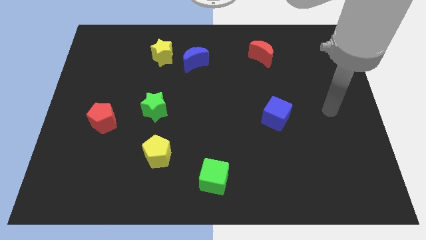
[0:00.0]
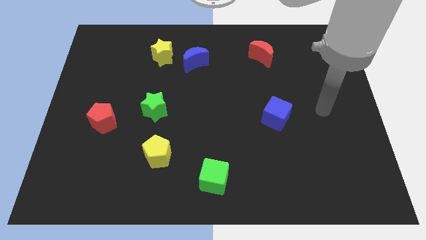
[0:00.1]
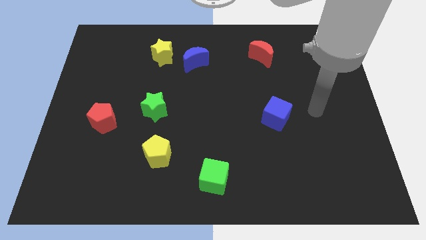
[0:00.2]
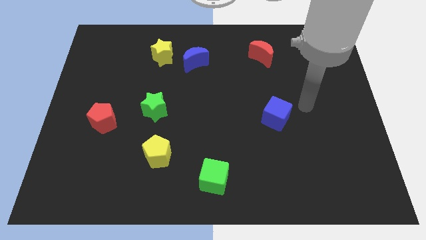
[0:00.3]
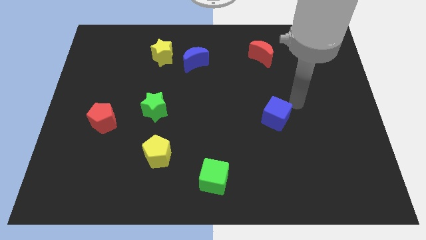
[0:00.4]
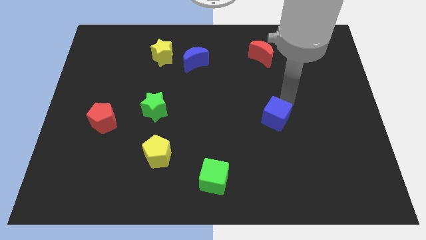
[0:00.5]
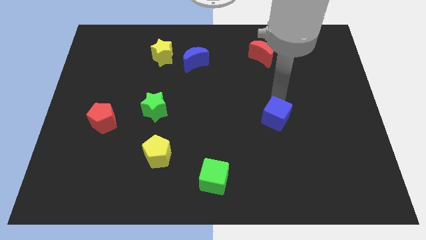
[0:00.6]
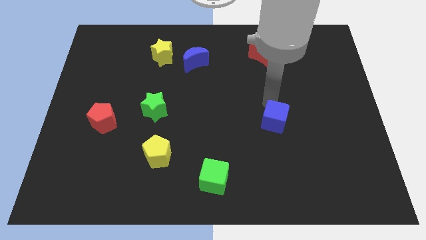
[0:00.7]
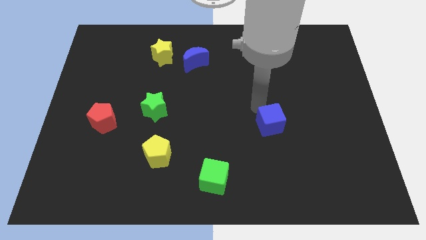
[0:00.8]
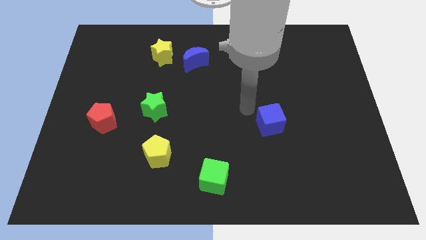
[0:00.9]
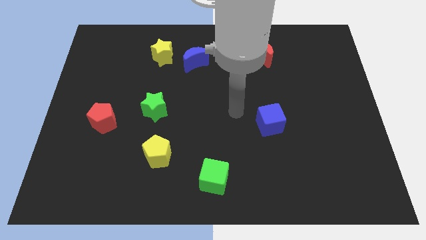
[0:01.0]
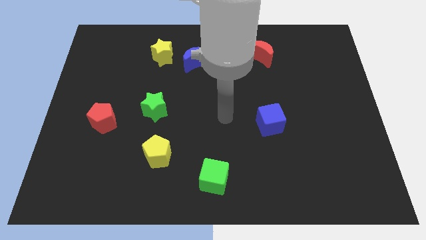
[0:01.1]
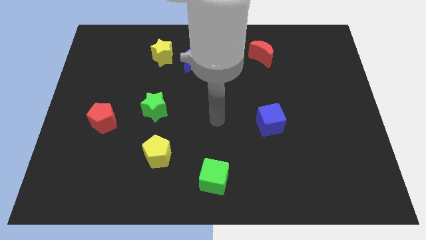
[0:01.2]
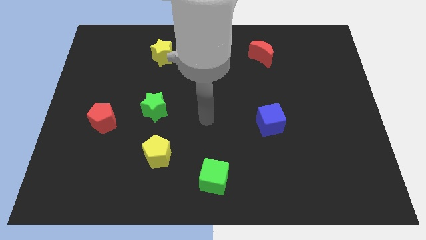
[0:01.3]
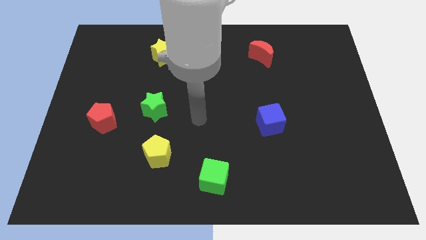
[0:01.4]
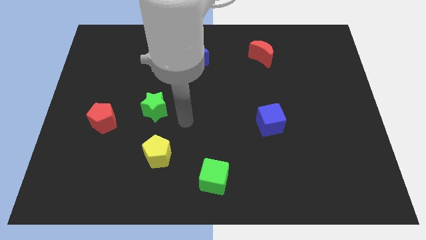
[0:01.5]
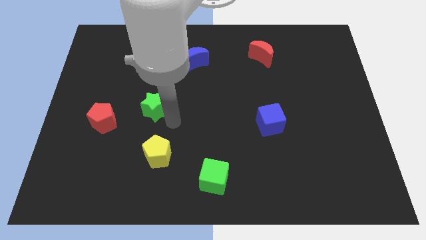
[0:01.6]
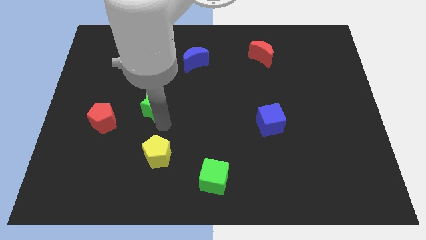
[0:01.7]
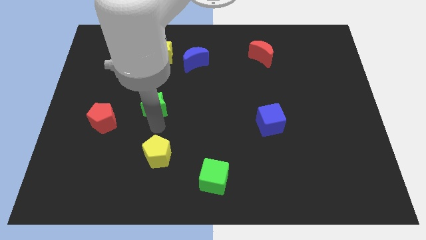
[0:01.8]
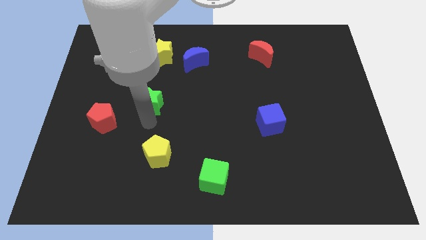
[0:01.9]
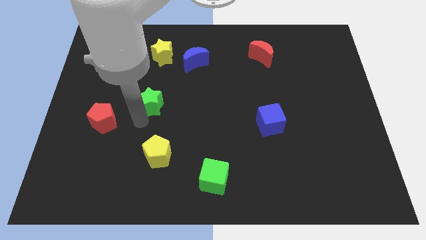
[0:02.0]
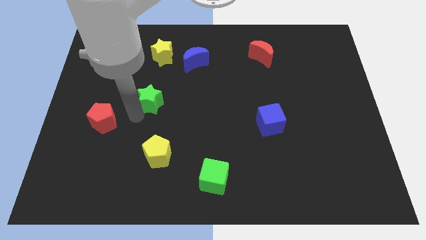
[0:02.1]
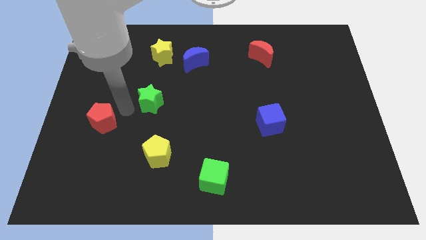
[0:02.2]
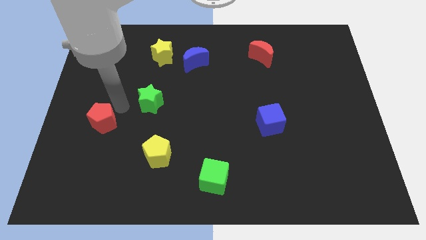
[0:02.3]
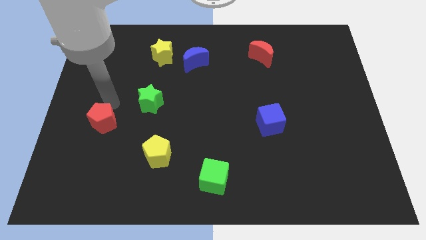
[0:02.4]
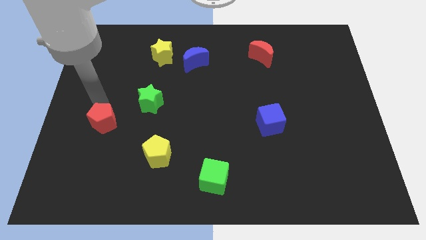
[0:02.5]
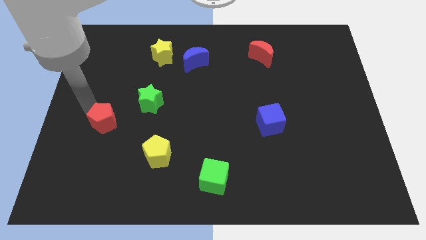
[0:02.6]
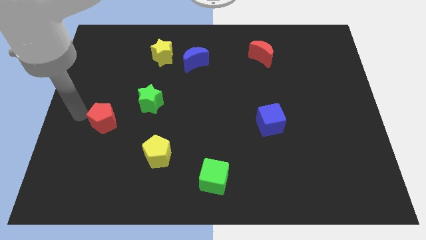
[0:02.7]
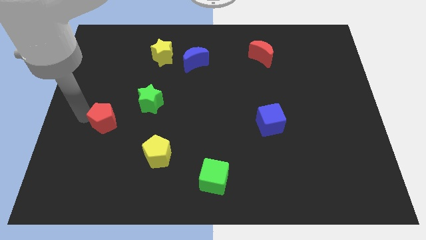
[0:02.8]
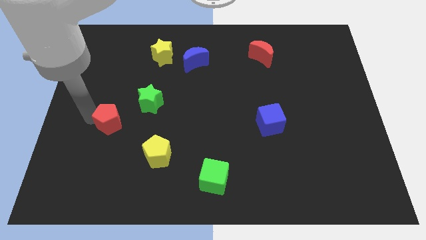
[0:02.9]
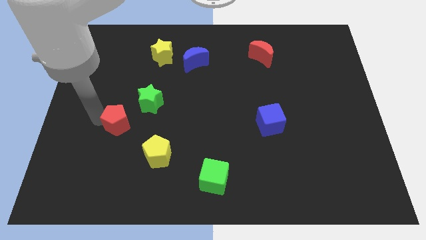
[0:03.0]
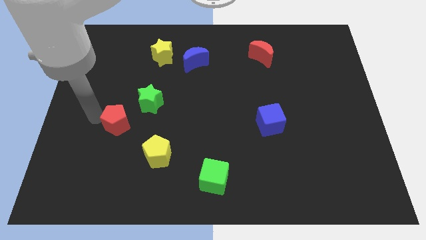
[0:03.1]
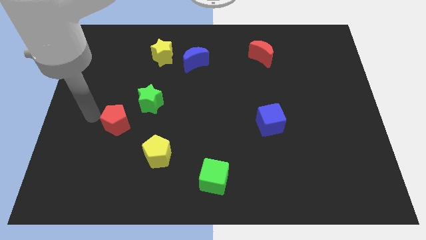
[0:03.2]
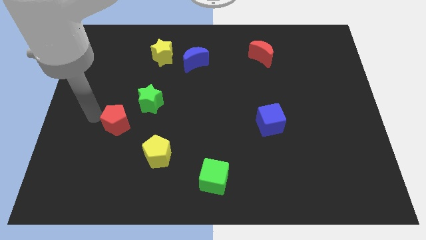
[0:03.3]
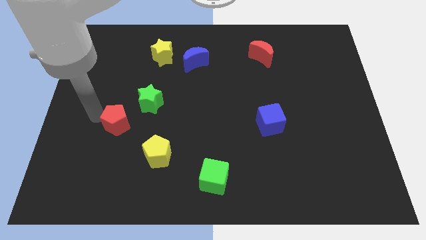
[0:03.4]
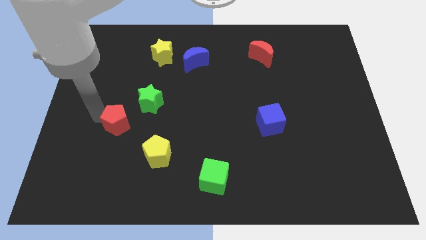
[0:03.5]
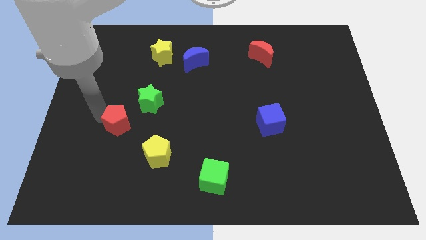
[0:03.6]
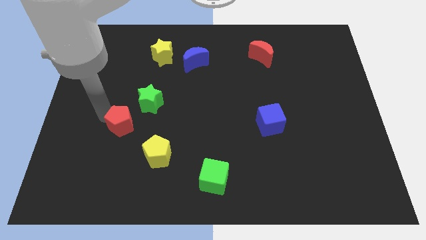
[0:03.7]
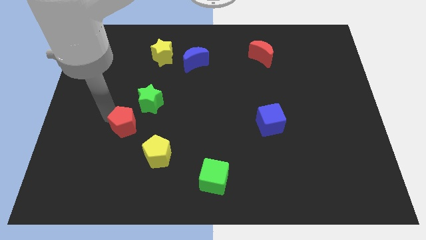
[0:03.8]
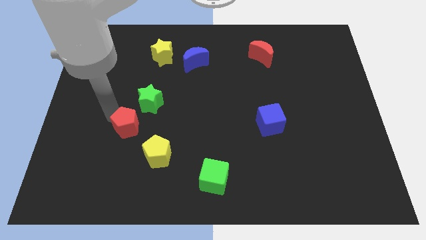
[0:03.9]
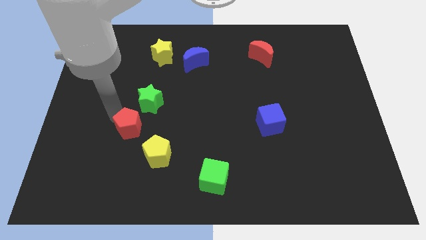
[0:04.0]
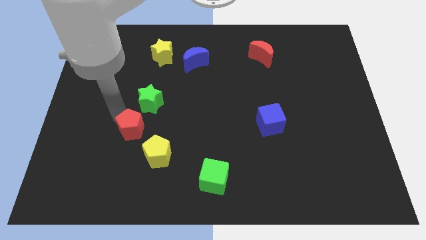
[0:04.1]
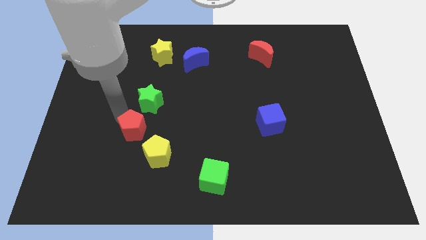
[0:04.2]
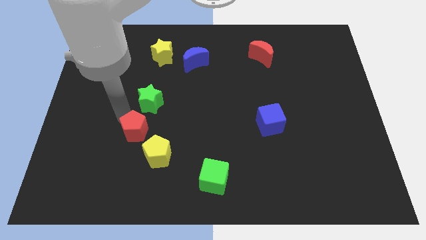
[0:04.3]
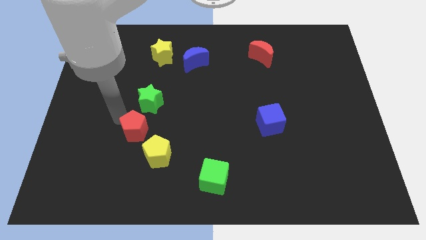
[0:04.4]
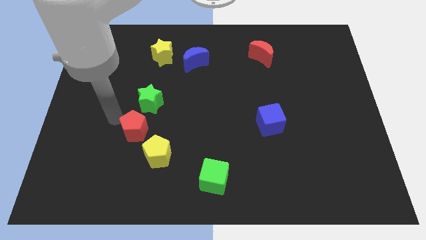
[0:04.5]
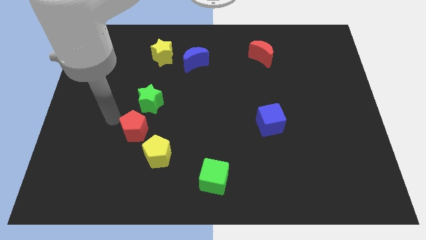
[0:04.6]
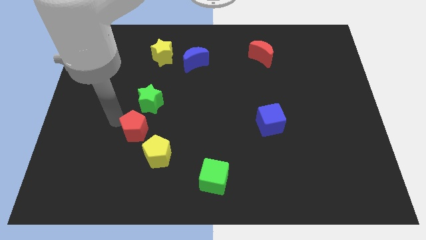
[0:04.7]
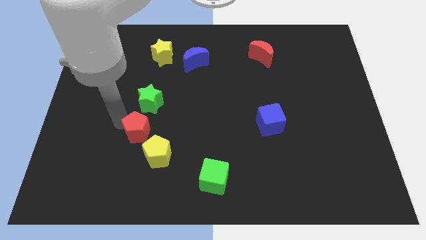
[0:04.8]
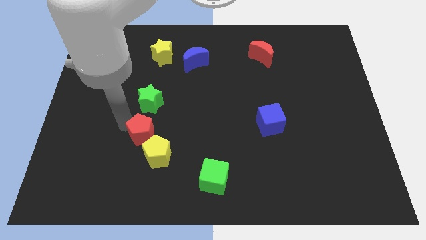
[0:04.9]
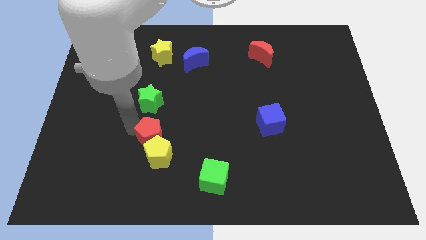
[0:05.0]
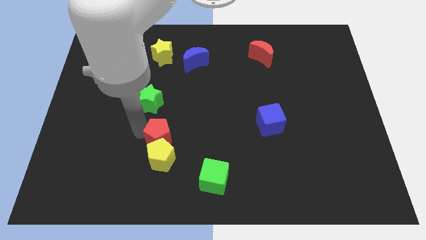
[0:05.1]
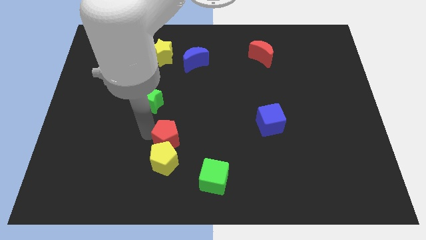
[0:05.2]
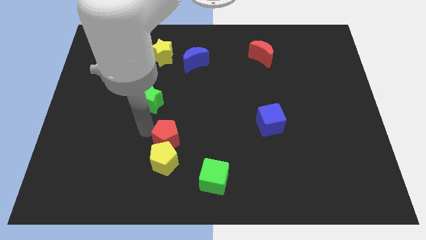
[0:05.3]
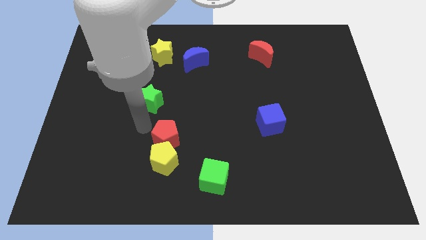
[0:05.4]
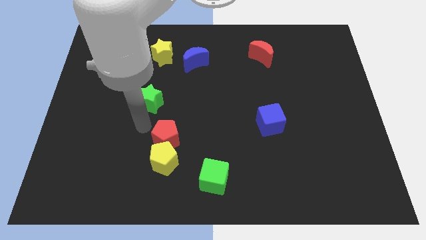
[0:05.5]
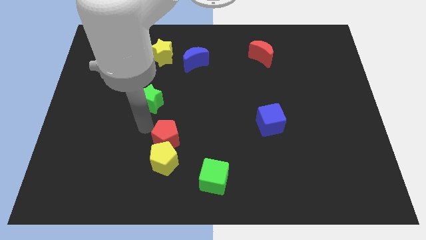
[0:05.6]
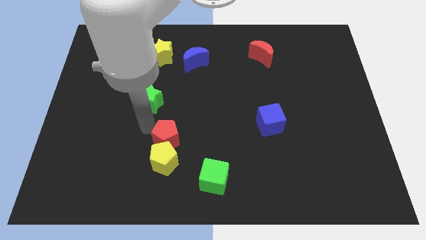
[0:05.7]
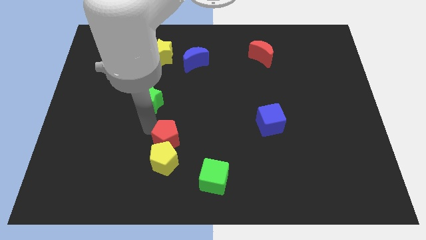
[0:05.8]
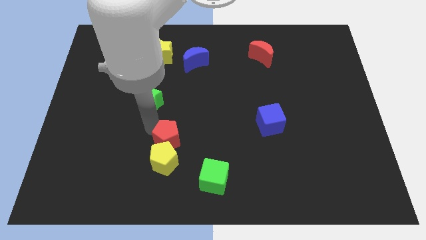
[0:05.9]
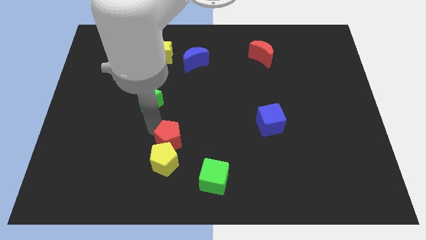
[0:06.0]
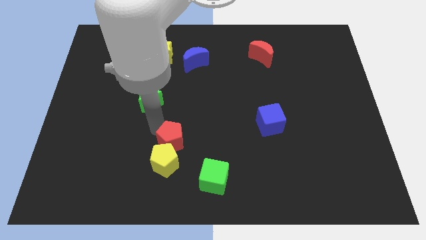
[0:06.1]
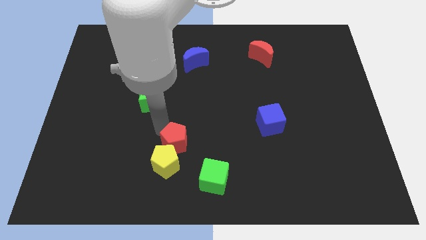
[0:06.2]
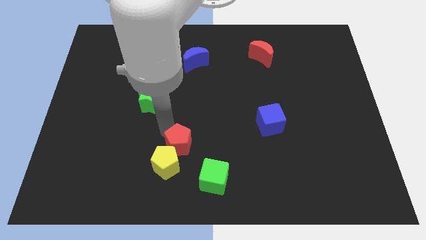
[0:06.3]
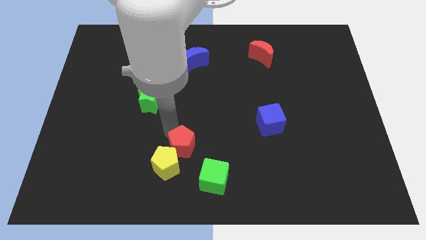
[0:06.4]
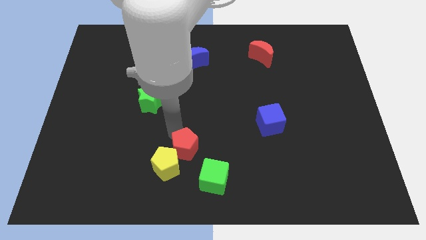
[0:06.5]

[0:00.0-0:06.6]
slide the red pentagon to the right of the yellow pentagon

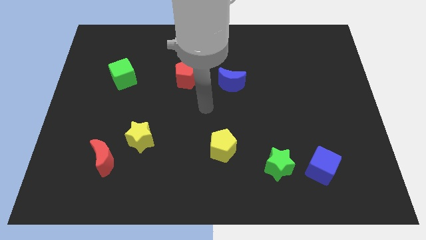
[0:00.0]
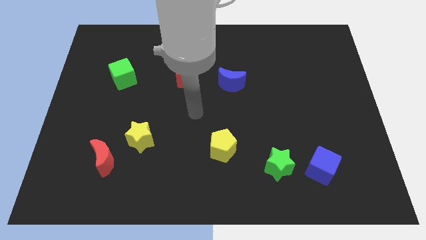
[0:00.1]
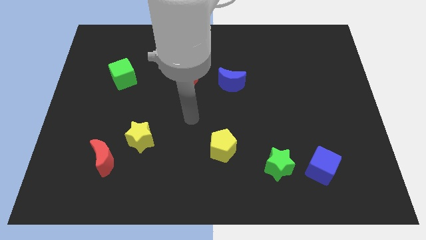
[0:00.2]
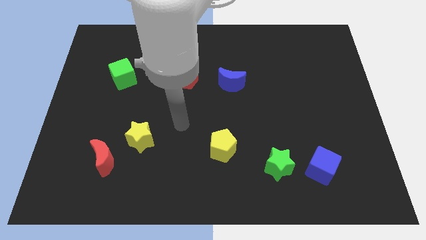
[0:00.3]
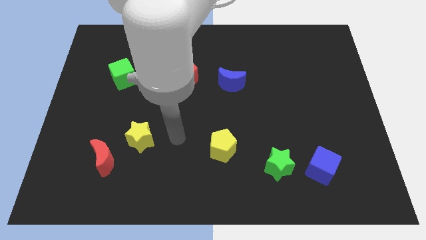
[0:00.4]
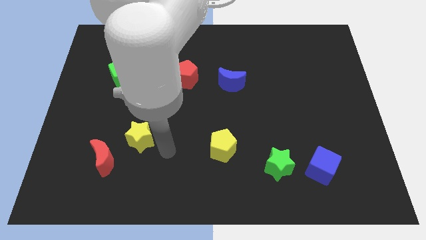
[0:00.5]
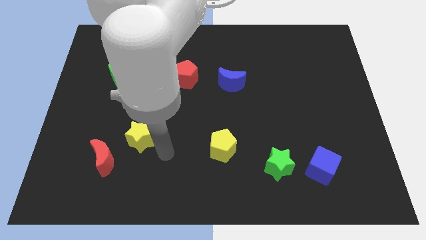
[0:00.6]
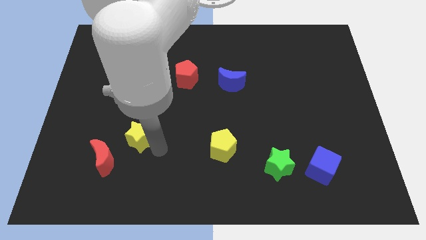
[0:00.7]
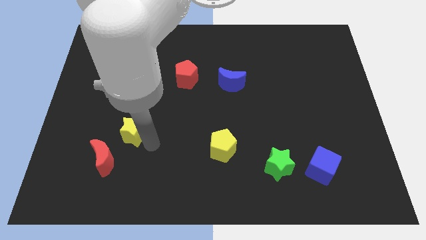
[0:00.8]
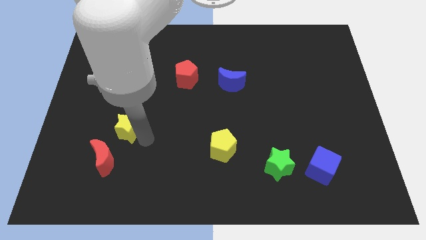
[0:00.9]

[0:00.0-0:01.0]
move the yellow star to the top side of the red moon

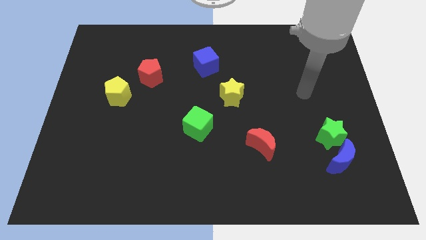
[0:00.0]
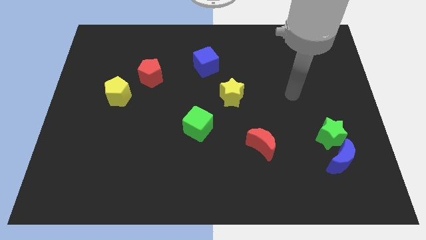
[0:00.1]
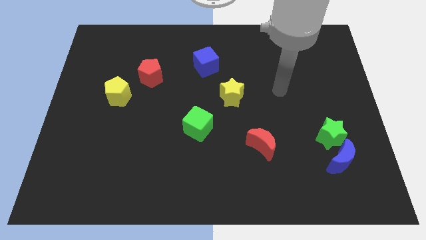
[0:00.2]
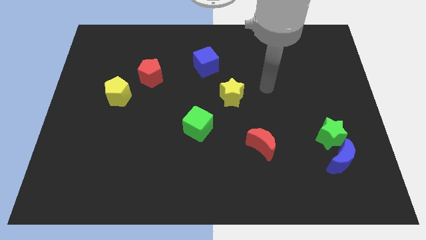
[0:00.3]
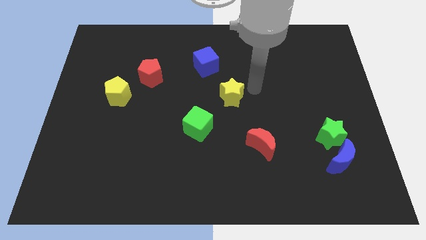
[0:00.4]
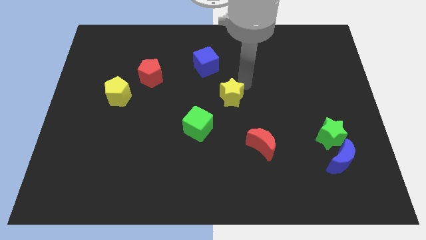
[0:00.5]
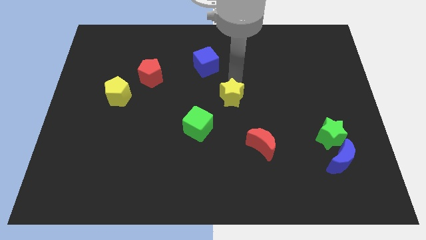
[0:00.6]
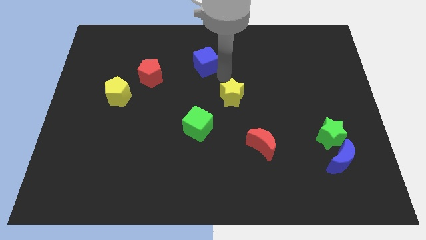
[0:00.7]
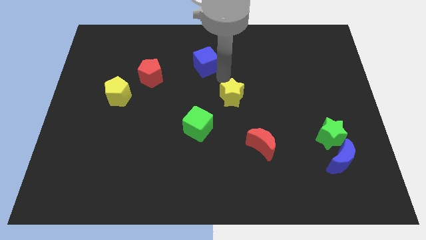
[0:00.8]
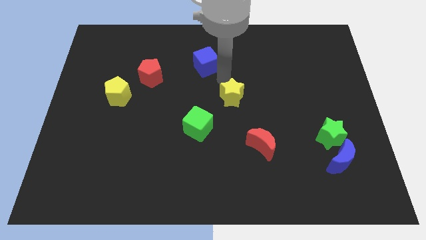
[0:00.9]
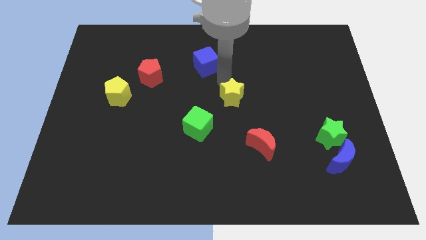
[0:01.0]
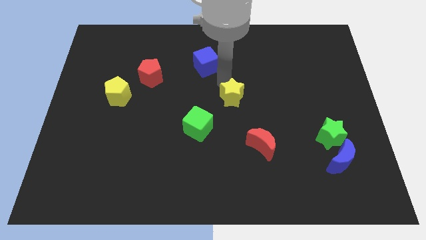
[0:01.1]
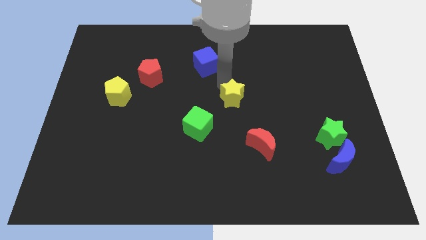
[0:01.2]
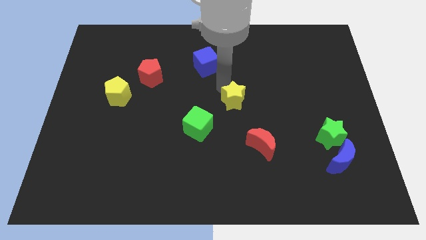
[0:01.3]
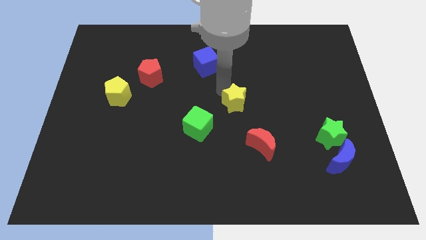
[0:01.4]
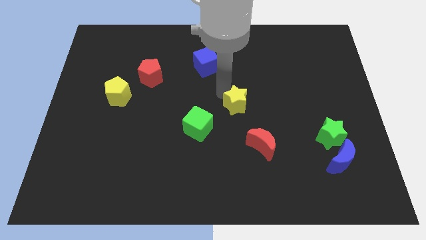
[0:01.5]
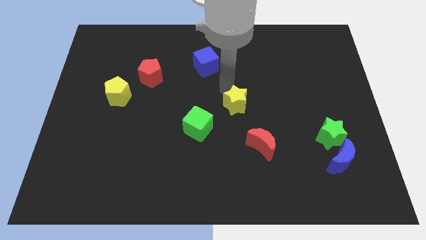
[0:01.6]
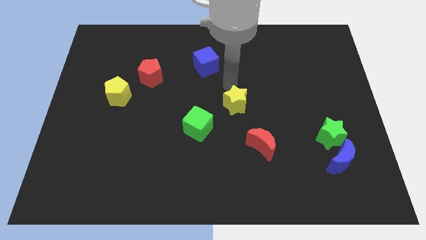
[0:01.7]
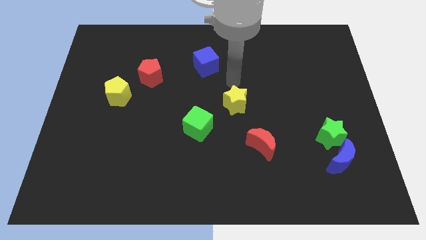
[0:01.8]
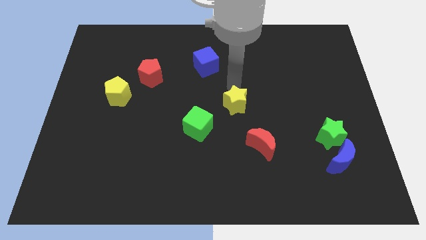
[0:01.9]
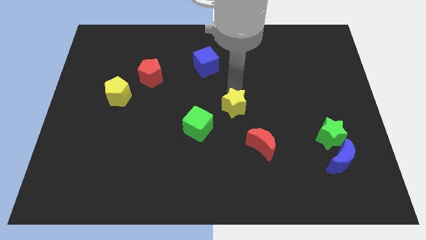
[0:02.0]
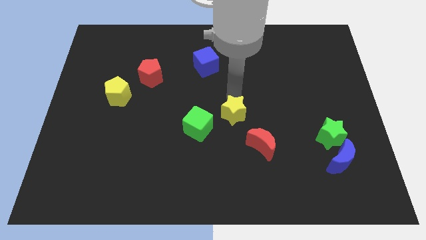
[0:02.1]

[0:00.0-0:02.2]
slide the yellow star diagonally up and to the left of the red moon
